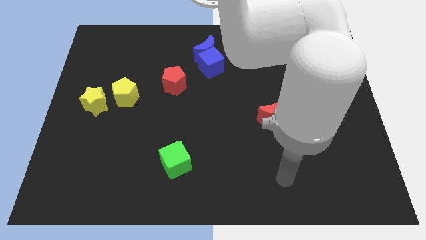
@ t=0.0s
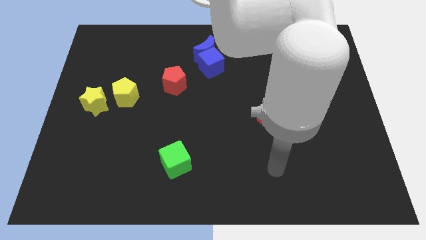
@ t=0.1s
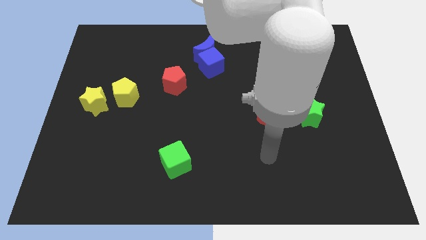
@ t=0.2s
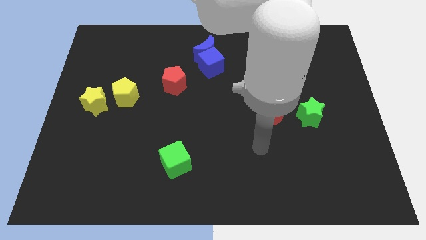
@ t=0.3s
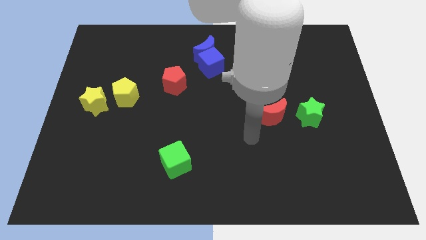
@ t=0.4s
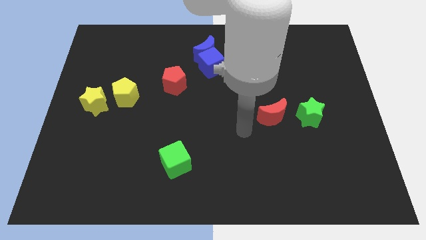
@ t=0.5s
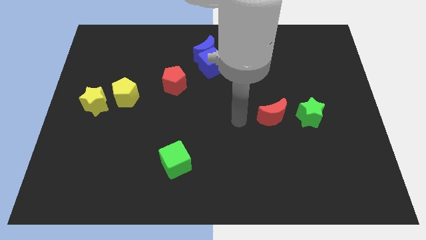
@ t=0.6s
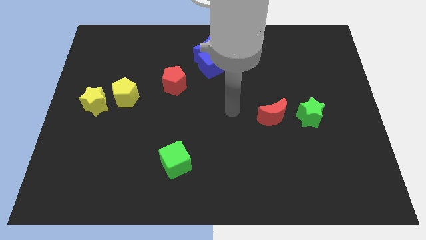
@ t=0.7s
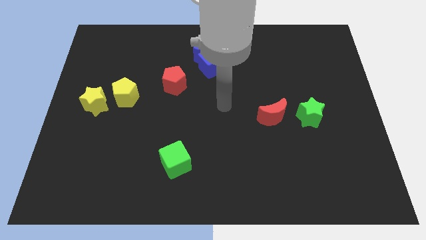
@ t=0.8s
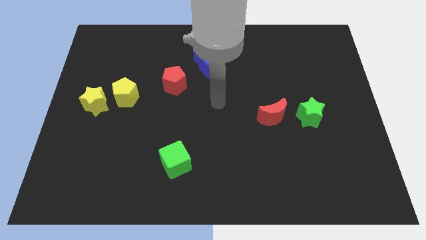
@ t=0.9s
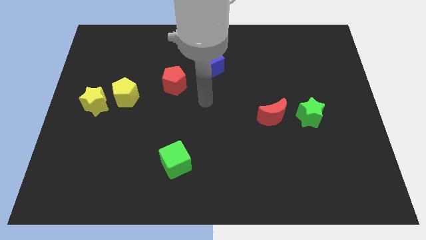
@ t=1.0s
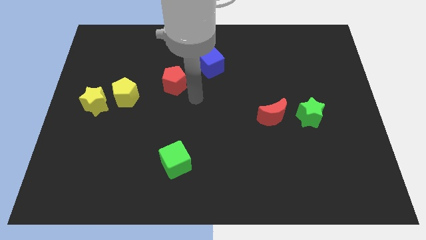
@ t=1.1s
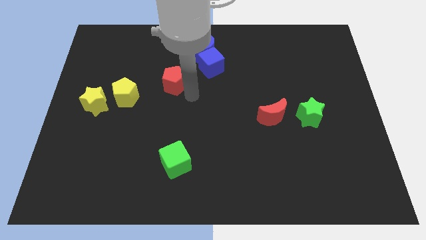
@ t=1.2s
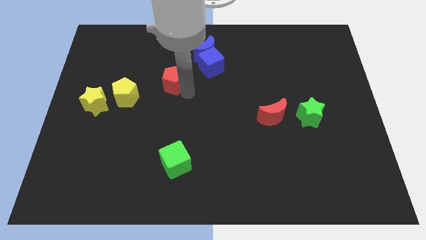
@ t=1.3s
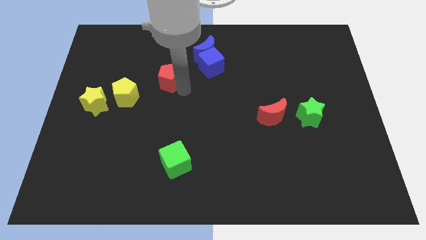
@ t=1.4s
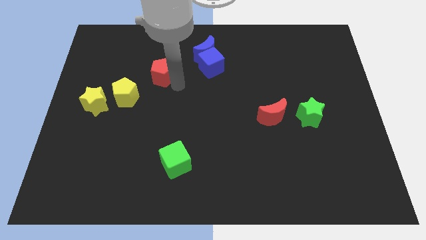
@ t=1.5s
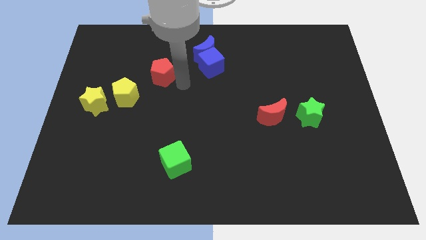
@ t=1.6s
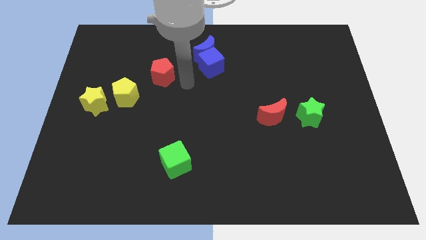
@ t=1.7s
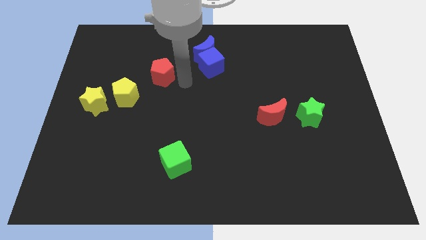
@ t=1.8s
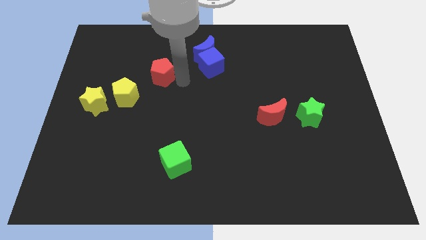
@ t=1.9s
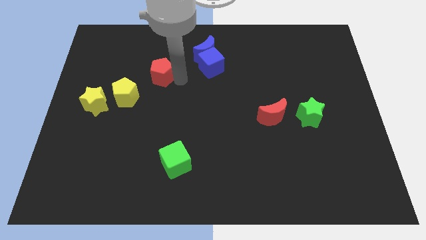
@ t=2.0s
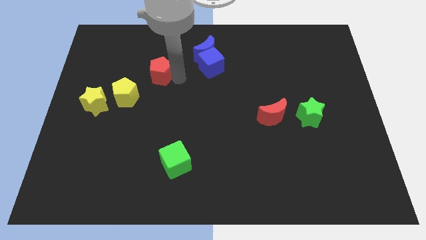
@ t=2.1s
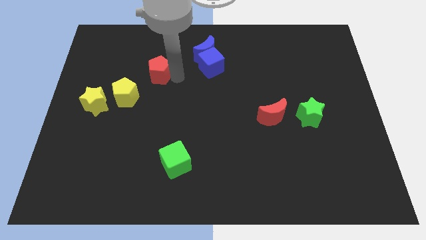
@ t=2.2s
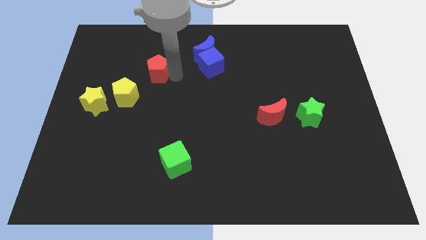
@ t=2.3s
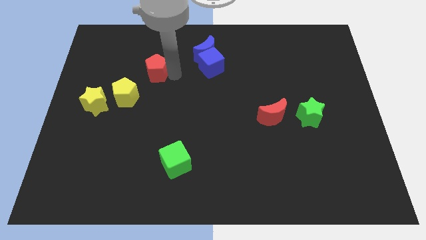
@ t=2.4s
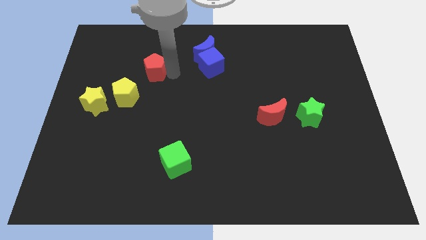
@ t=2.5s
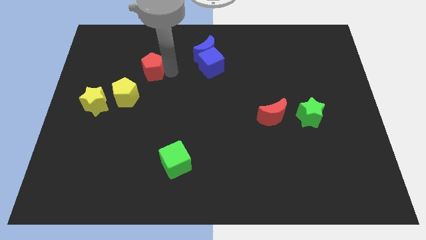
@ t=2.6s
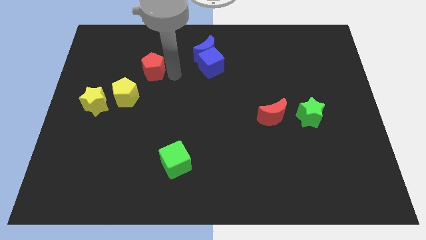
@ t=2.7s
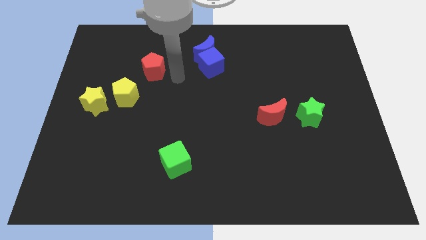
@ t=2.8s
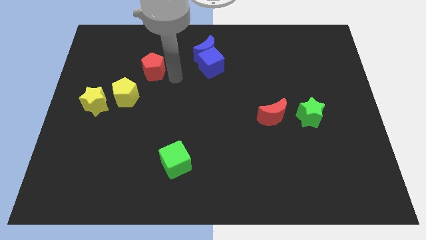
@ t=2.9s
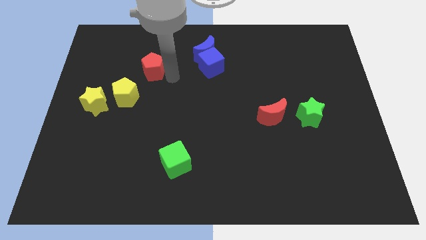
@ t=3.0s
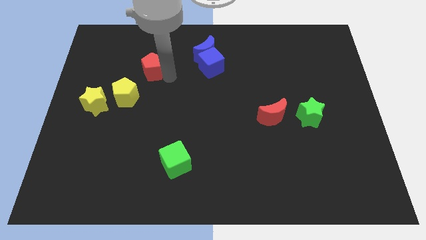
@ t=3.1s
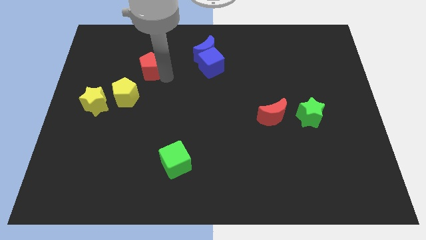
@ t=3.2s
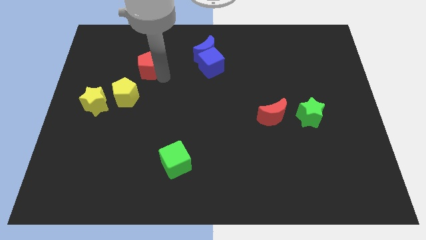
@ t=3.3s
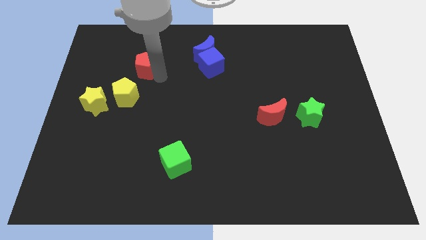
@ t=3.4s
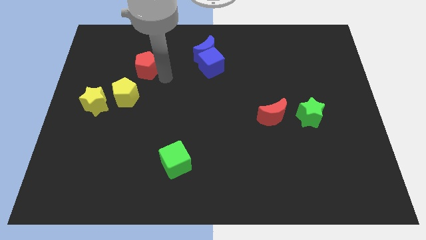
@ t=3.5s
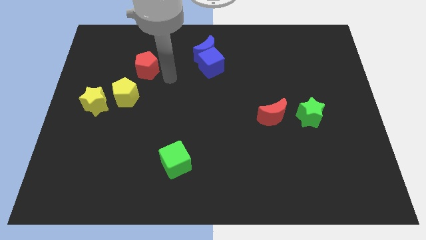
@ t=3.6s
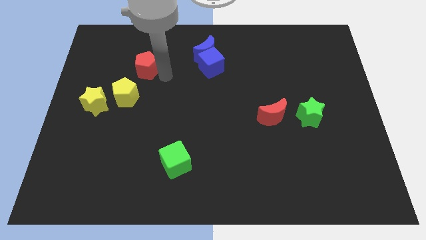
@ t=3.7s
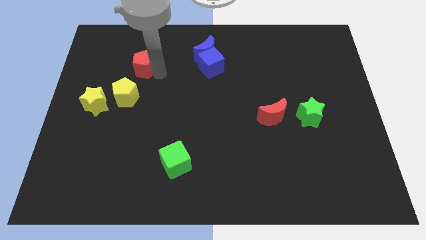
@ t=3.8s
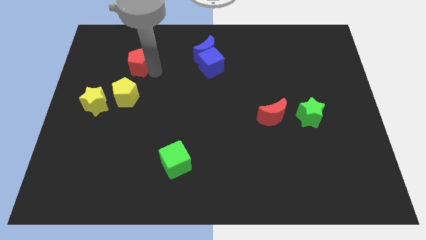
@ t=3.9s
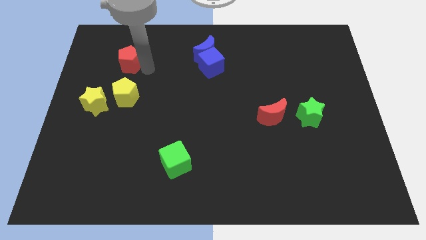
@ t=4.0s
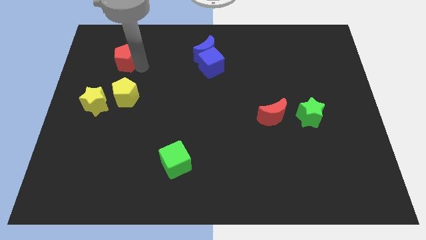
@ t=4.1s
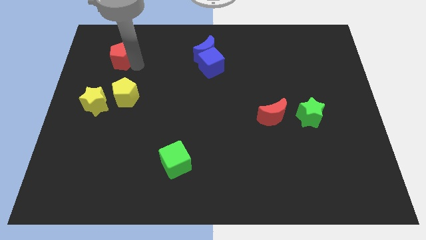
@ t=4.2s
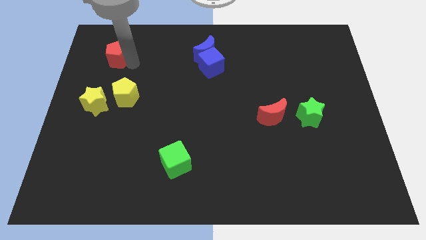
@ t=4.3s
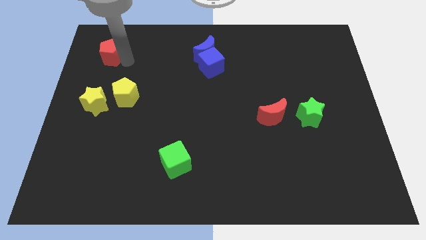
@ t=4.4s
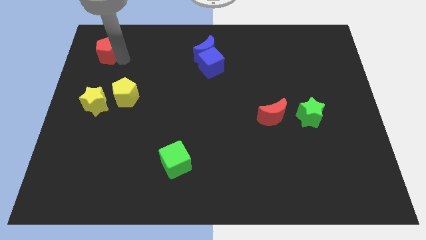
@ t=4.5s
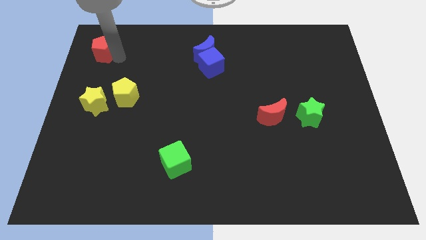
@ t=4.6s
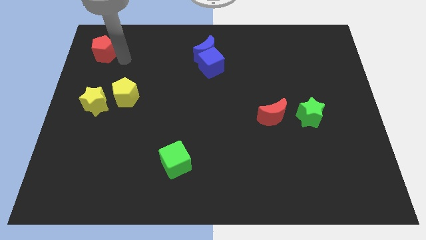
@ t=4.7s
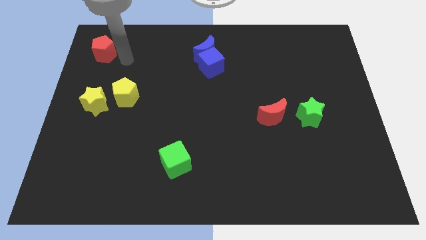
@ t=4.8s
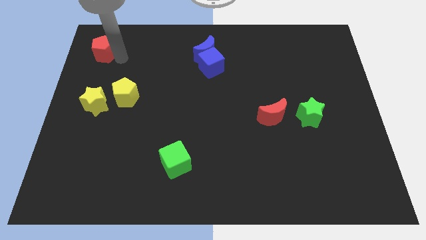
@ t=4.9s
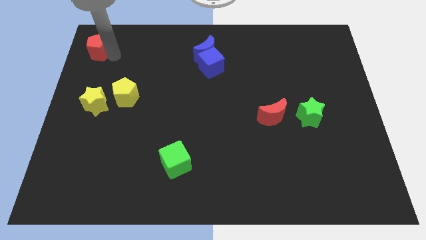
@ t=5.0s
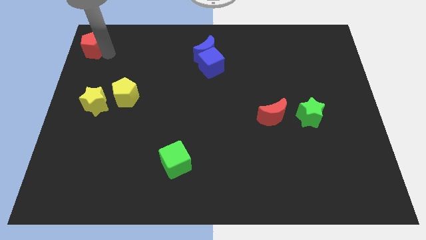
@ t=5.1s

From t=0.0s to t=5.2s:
push the red pentagon to the top left of the board

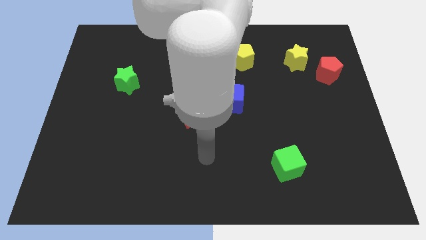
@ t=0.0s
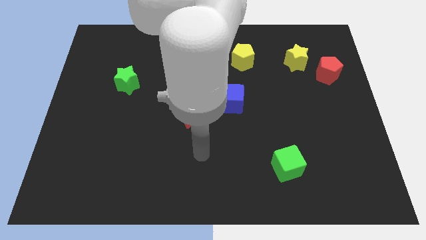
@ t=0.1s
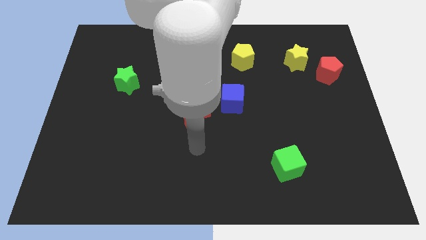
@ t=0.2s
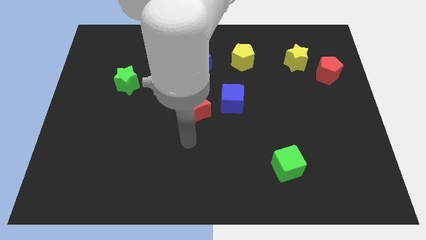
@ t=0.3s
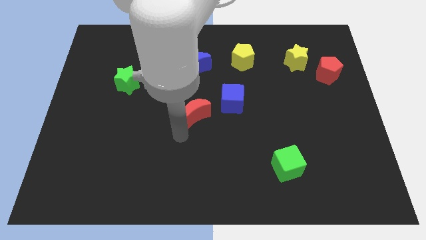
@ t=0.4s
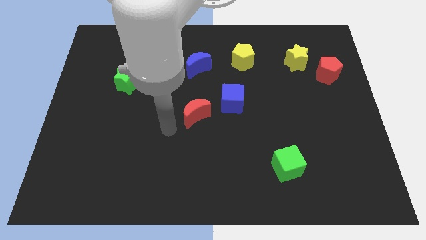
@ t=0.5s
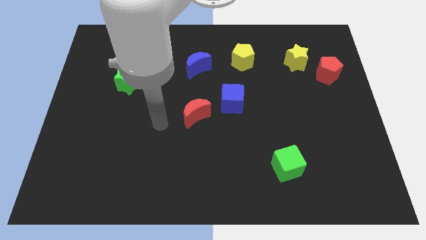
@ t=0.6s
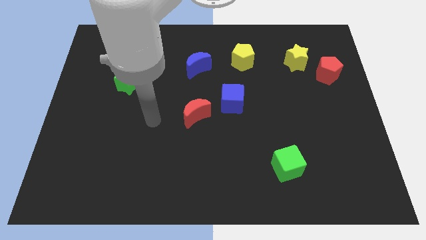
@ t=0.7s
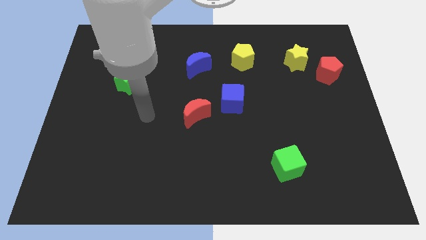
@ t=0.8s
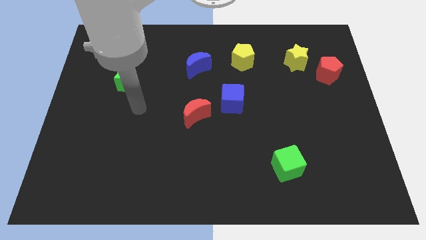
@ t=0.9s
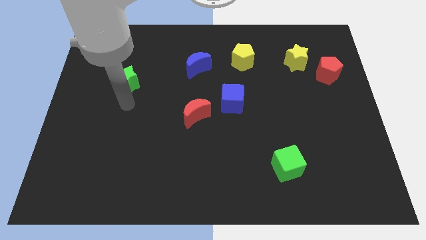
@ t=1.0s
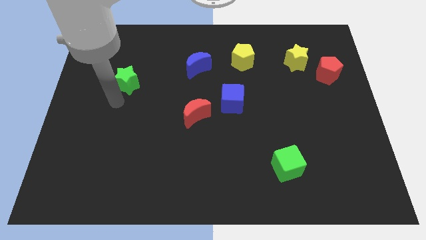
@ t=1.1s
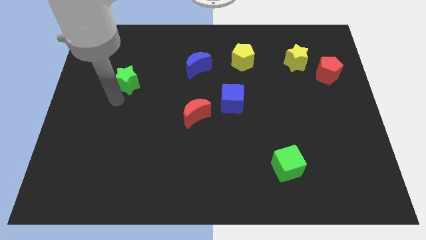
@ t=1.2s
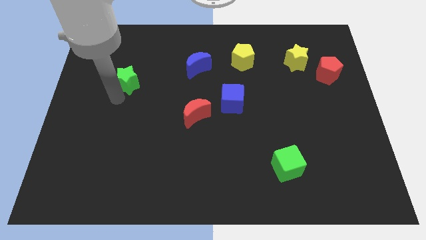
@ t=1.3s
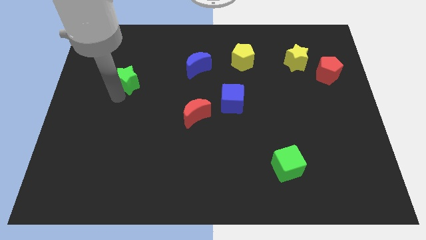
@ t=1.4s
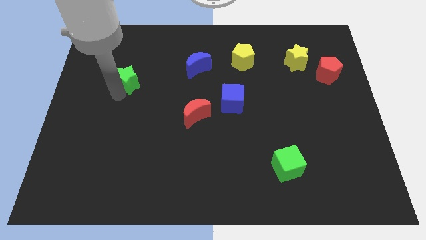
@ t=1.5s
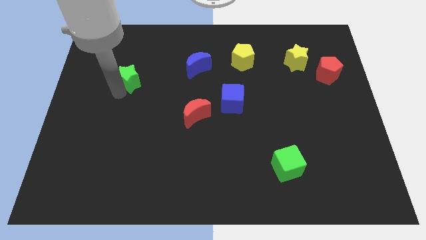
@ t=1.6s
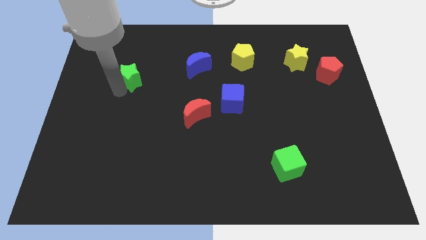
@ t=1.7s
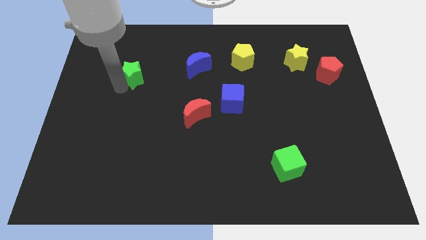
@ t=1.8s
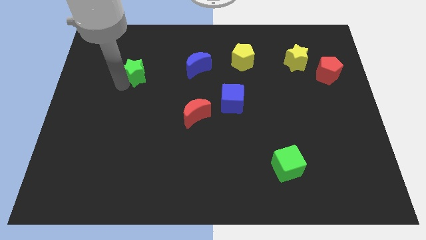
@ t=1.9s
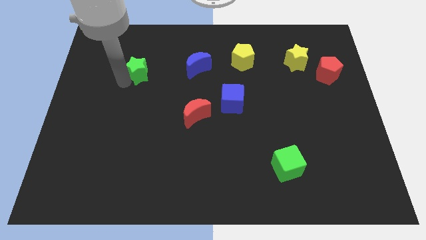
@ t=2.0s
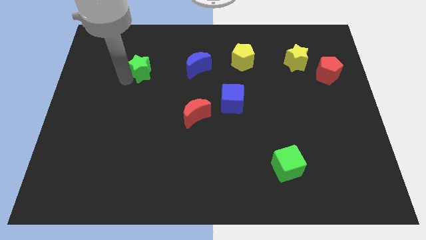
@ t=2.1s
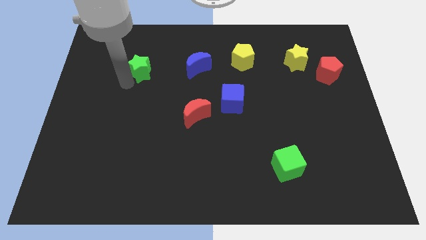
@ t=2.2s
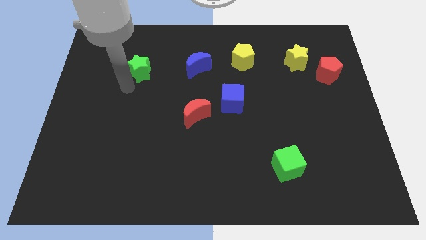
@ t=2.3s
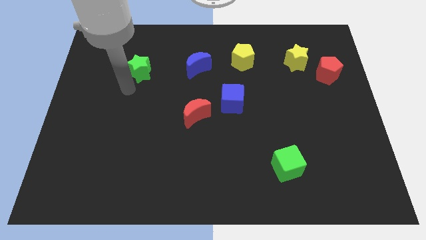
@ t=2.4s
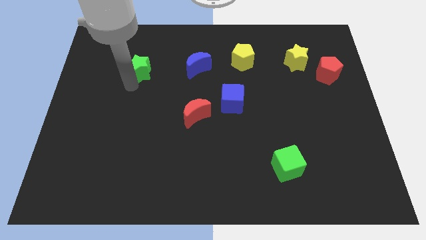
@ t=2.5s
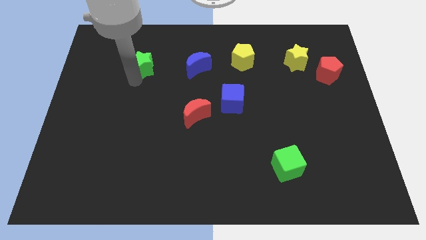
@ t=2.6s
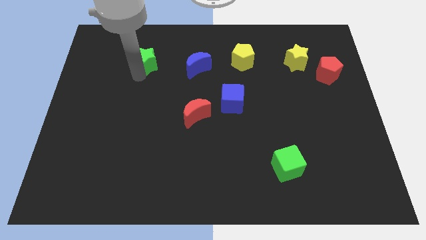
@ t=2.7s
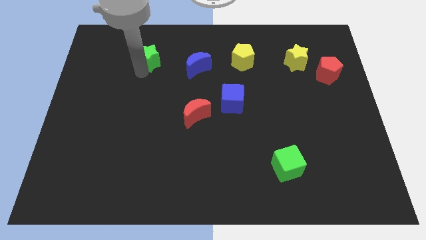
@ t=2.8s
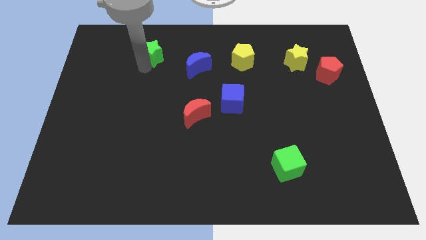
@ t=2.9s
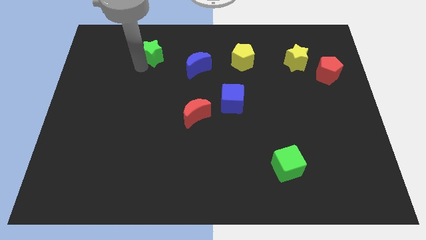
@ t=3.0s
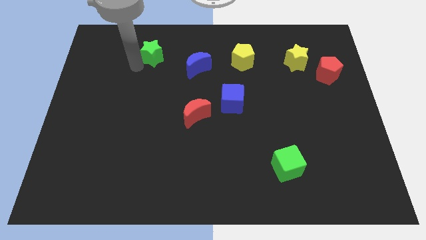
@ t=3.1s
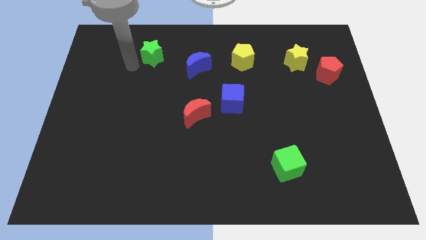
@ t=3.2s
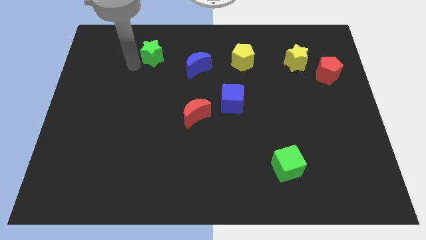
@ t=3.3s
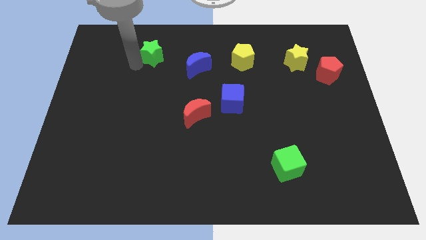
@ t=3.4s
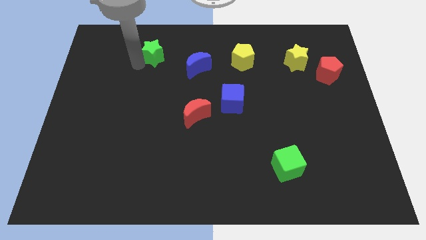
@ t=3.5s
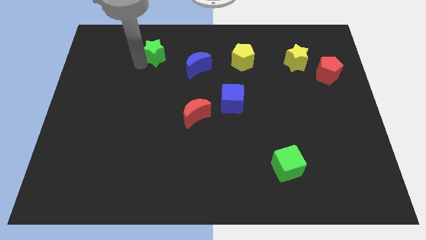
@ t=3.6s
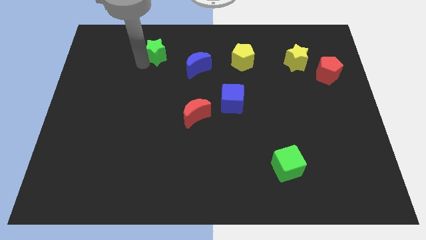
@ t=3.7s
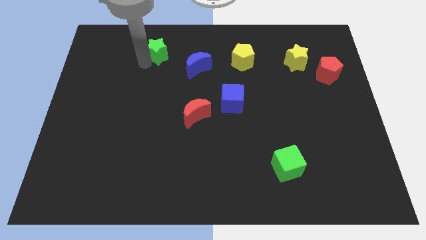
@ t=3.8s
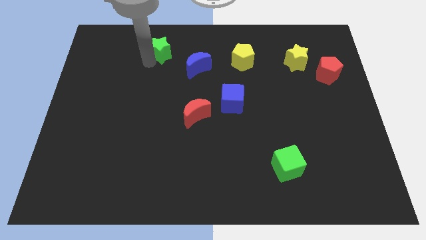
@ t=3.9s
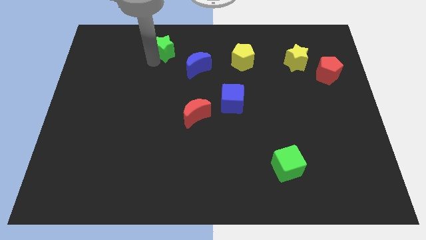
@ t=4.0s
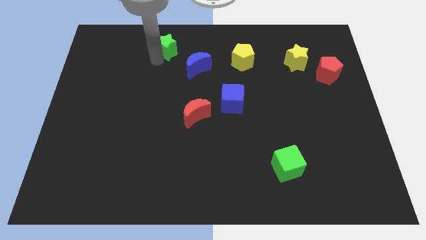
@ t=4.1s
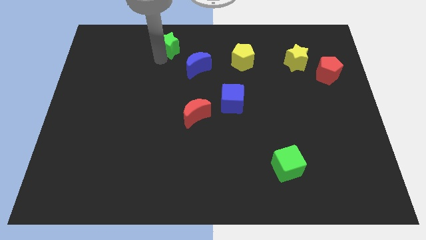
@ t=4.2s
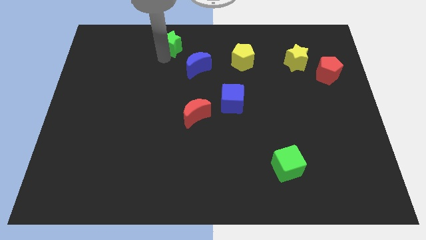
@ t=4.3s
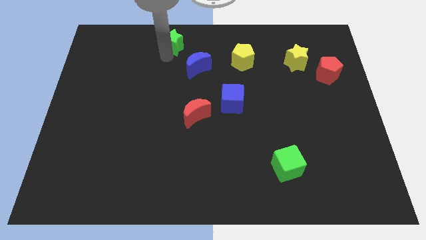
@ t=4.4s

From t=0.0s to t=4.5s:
push the green star to the towards your base
